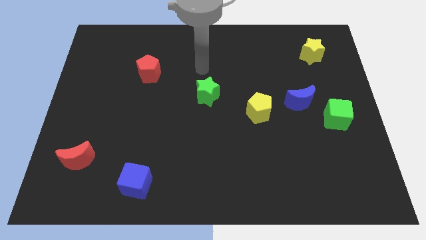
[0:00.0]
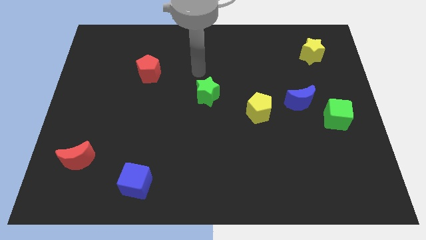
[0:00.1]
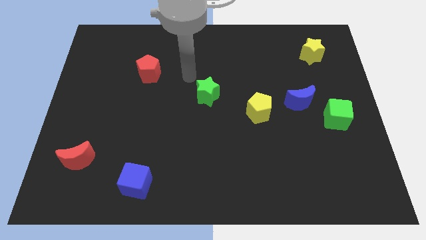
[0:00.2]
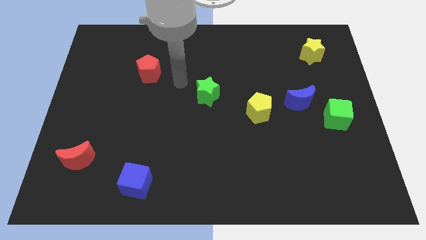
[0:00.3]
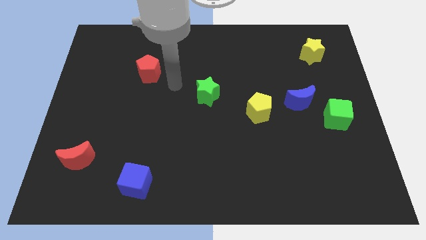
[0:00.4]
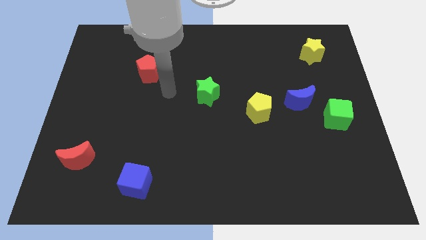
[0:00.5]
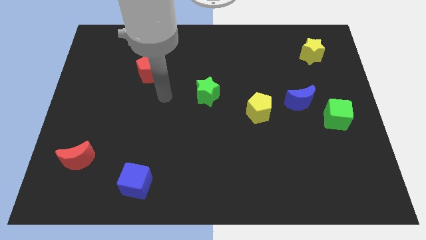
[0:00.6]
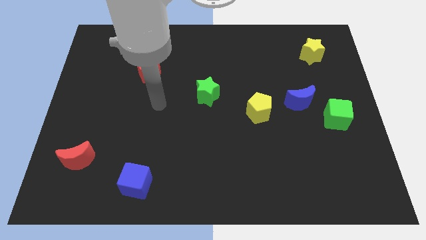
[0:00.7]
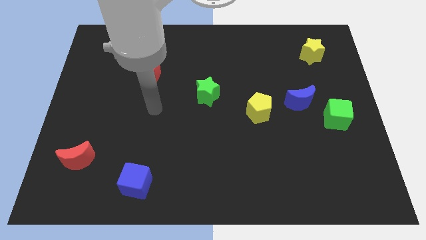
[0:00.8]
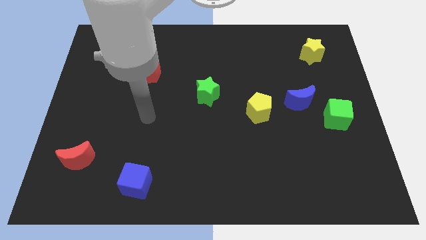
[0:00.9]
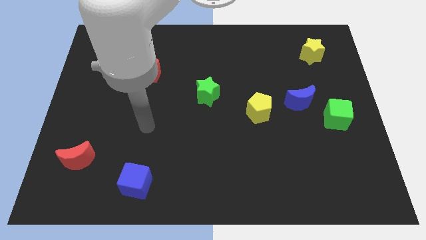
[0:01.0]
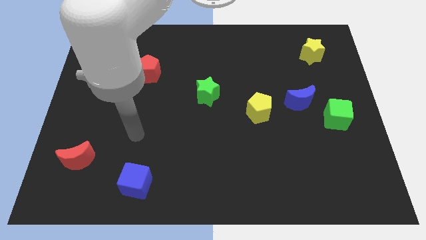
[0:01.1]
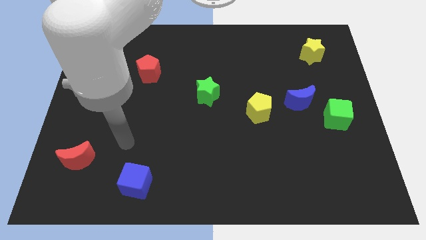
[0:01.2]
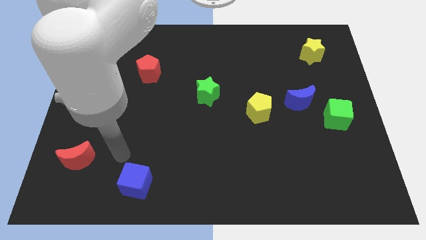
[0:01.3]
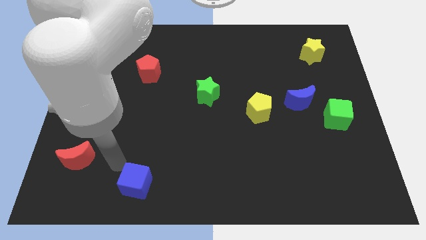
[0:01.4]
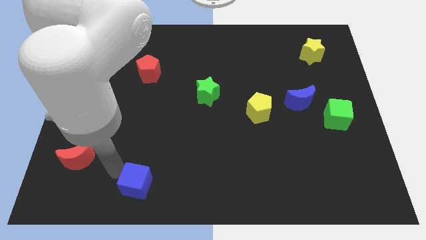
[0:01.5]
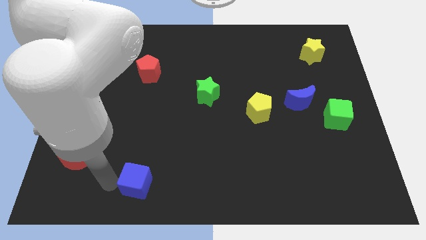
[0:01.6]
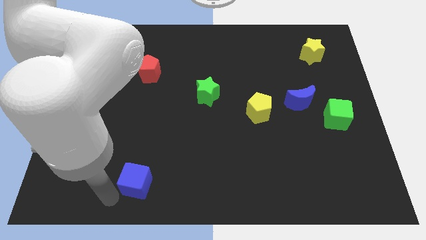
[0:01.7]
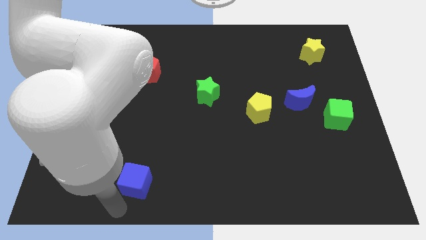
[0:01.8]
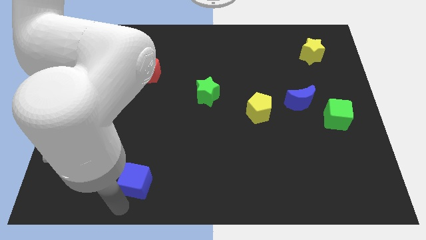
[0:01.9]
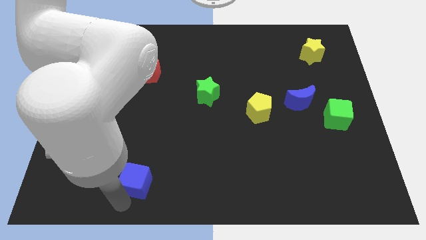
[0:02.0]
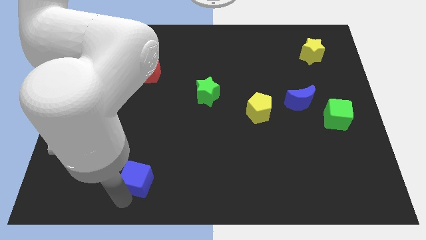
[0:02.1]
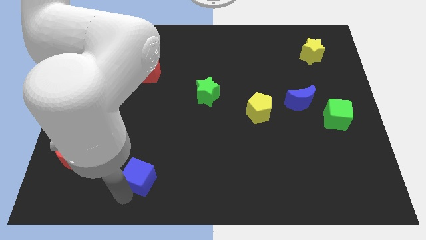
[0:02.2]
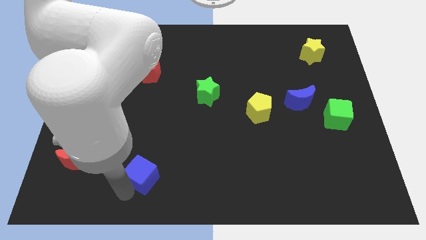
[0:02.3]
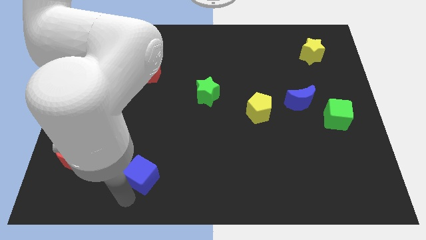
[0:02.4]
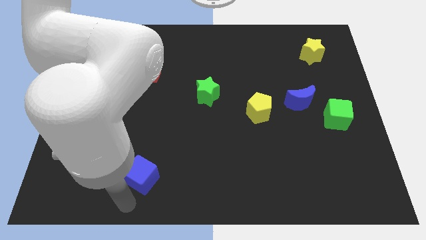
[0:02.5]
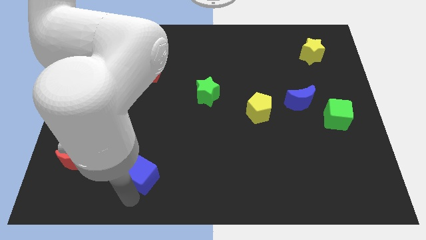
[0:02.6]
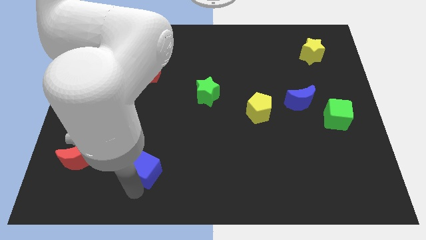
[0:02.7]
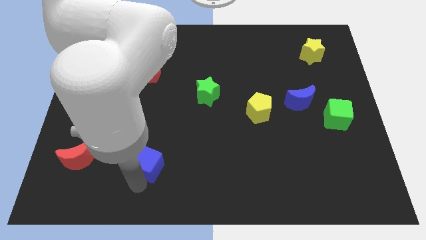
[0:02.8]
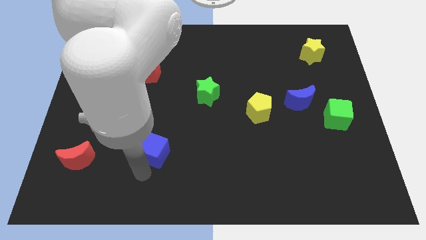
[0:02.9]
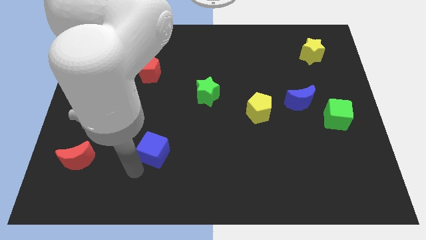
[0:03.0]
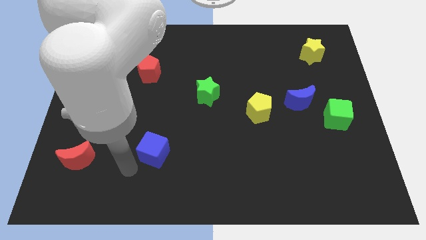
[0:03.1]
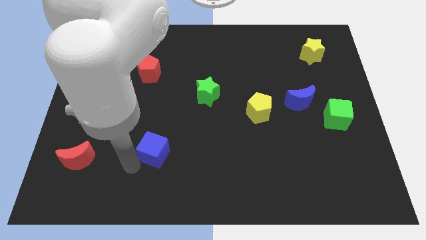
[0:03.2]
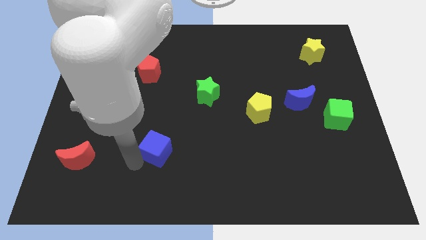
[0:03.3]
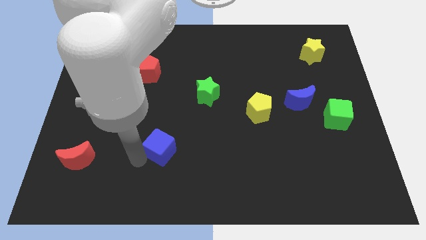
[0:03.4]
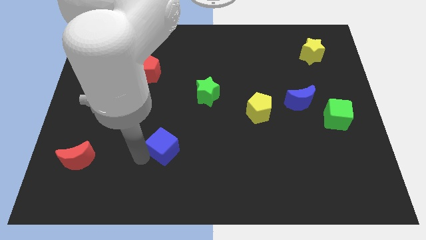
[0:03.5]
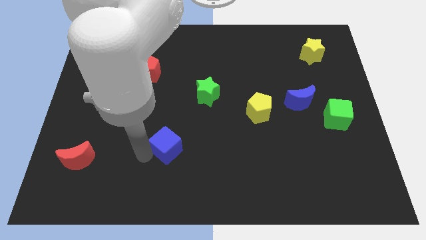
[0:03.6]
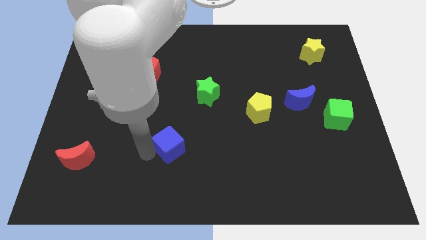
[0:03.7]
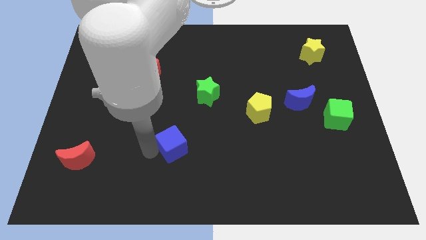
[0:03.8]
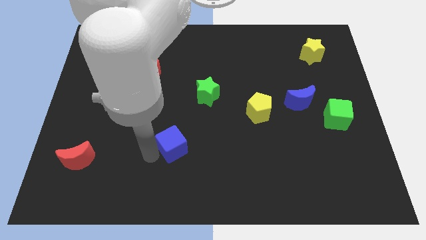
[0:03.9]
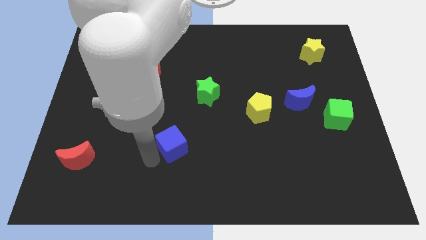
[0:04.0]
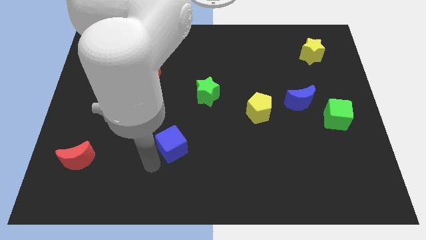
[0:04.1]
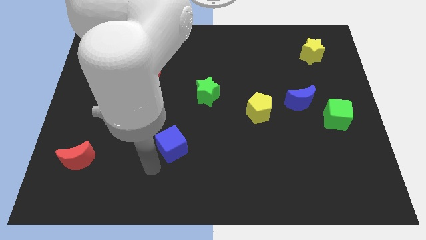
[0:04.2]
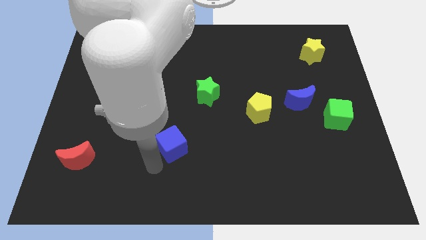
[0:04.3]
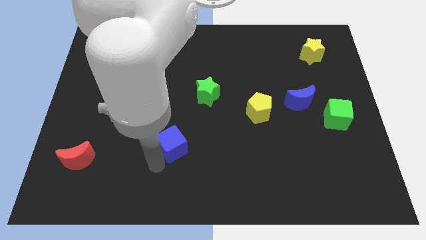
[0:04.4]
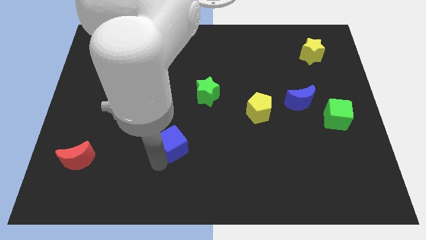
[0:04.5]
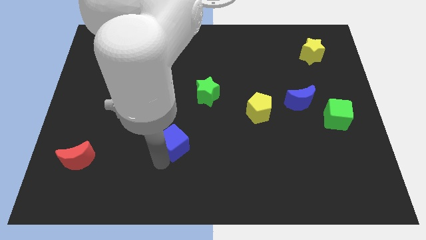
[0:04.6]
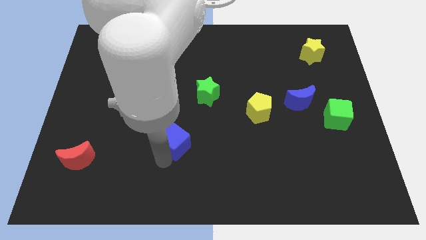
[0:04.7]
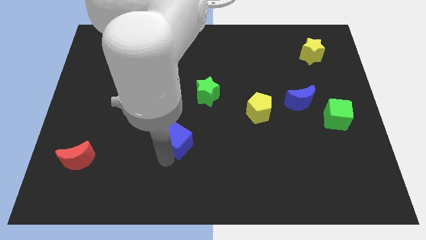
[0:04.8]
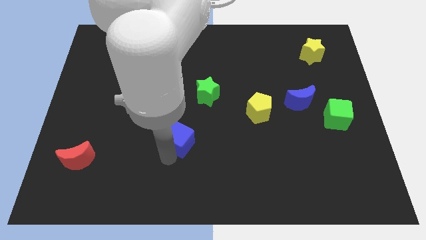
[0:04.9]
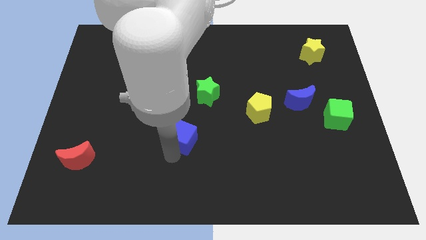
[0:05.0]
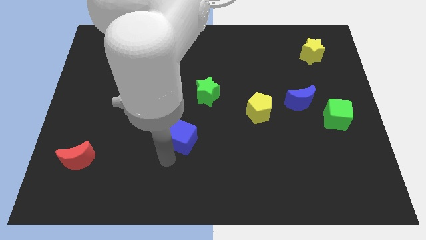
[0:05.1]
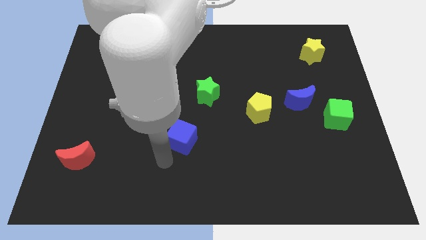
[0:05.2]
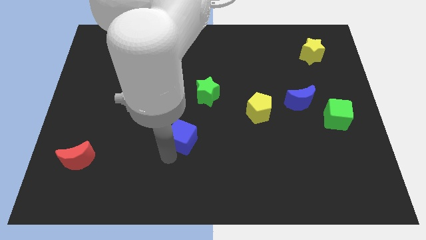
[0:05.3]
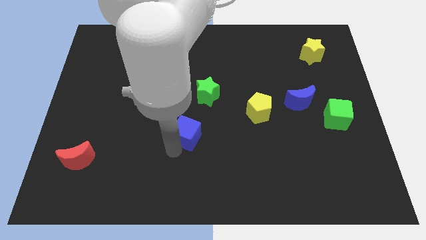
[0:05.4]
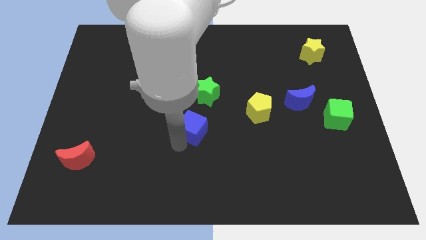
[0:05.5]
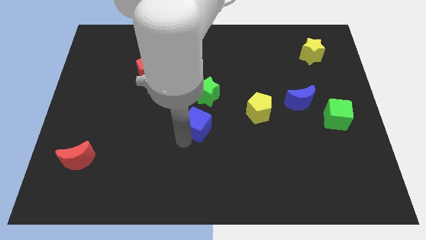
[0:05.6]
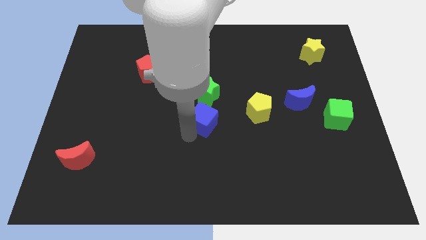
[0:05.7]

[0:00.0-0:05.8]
slide the blue cube diagonally upwards and right

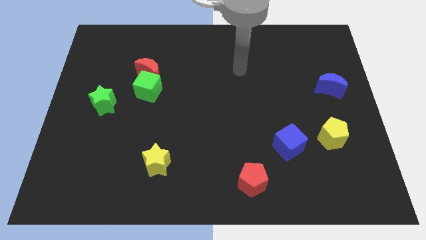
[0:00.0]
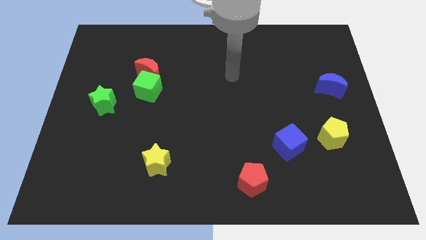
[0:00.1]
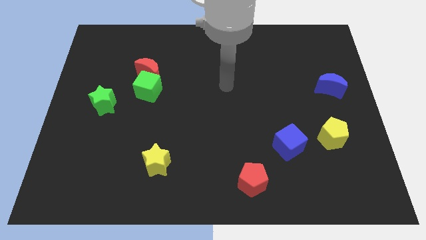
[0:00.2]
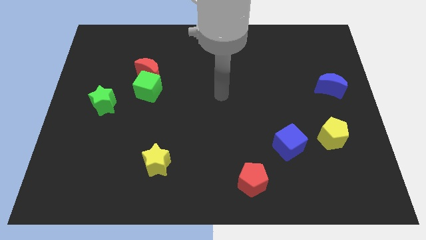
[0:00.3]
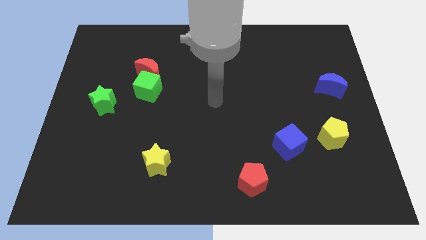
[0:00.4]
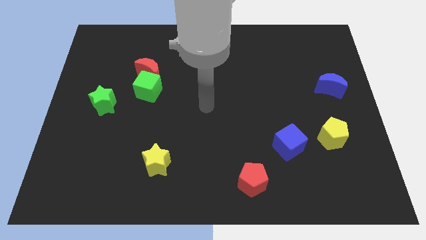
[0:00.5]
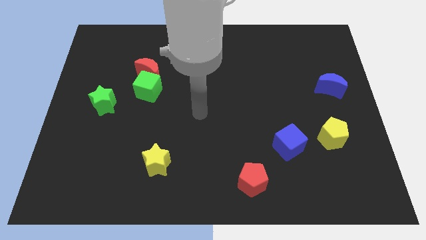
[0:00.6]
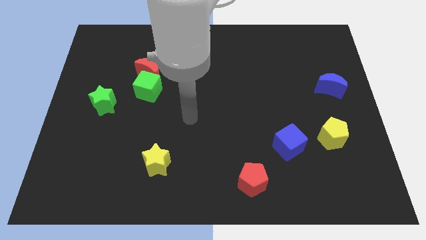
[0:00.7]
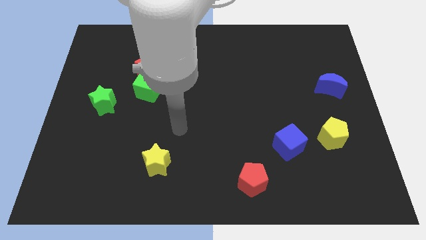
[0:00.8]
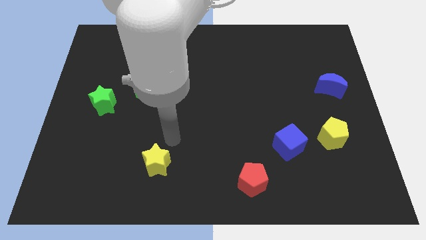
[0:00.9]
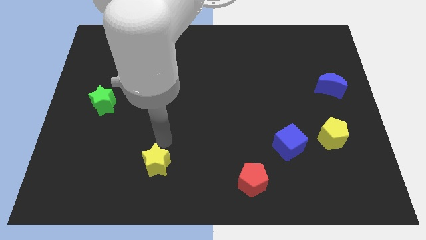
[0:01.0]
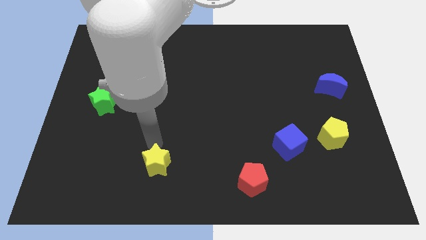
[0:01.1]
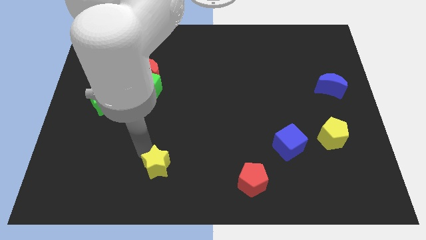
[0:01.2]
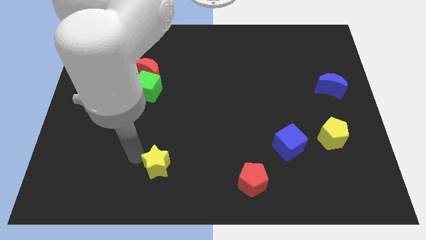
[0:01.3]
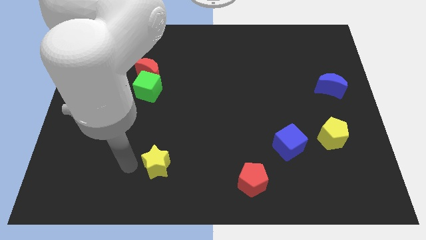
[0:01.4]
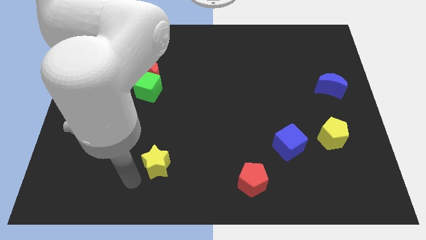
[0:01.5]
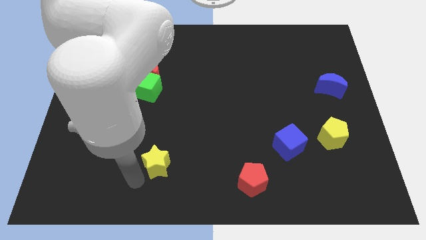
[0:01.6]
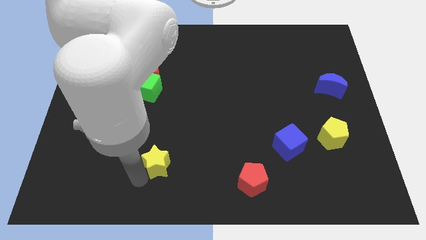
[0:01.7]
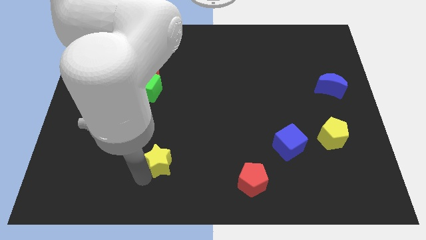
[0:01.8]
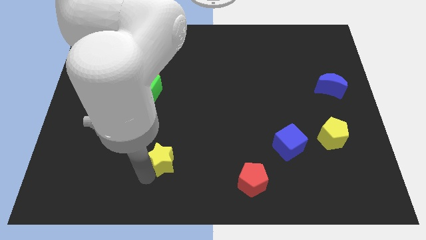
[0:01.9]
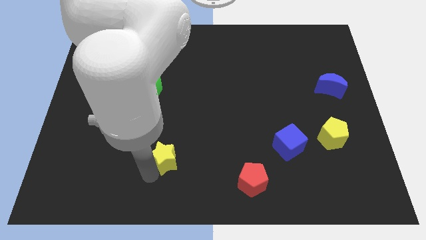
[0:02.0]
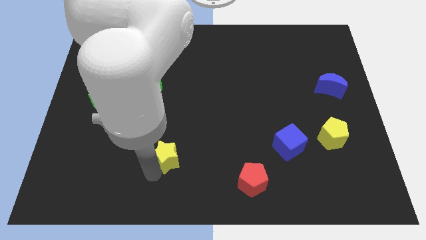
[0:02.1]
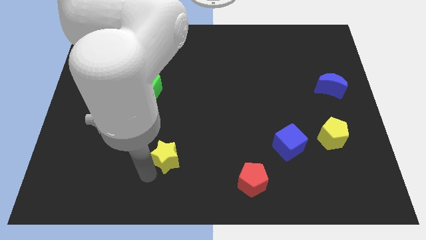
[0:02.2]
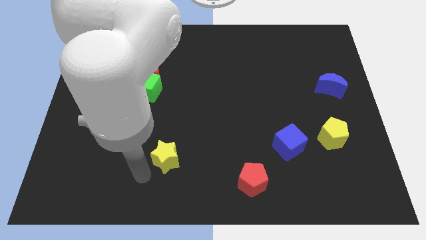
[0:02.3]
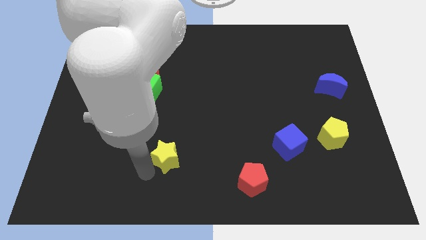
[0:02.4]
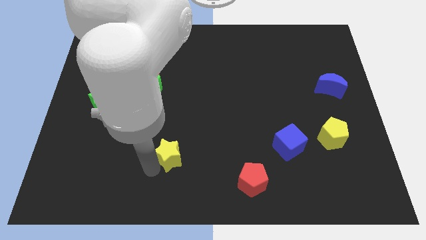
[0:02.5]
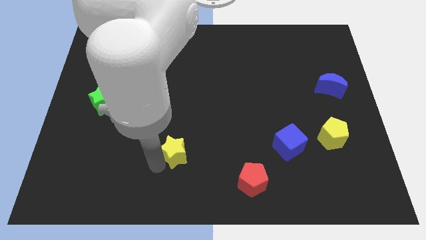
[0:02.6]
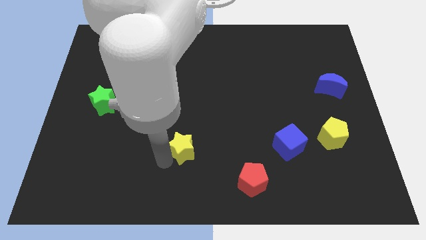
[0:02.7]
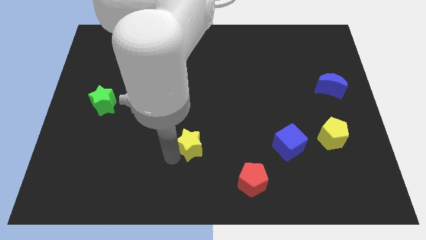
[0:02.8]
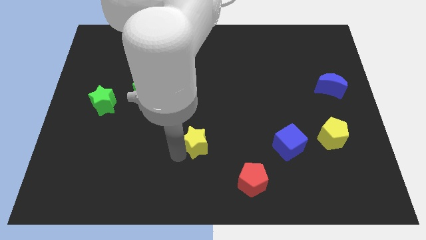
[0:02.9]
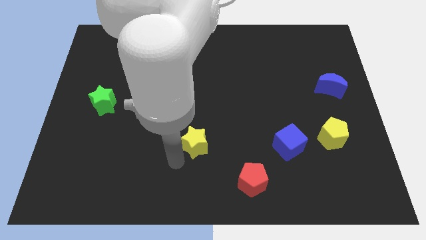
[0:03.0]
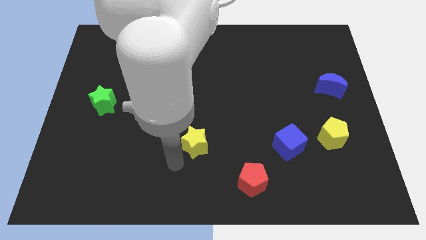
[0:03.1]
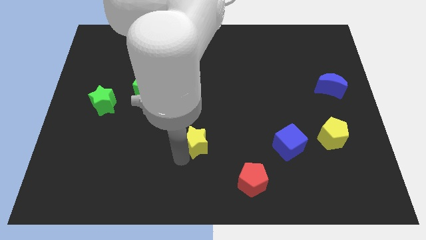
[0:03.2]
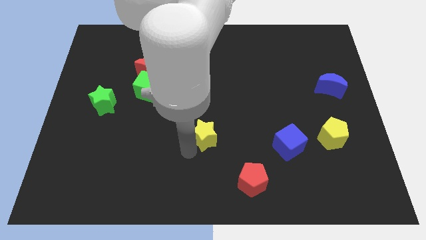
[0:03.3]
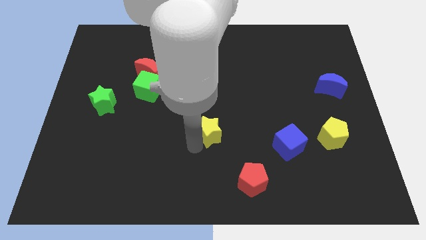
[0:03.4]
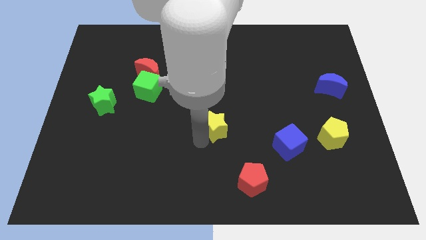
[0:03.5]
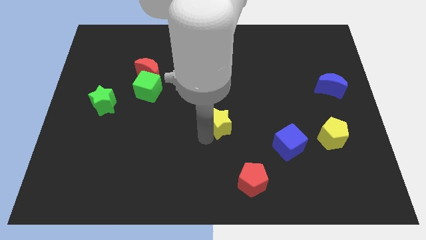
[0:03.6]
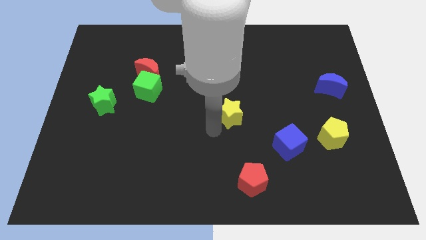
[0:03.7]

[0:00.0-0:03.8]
move the yellow star up and then to the right
